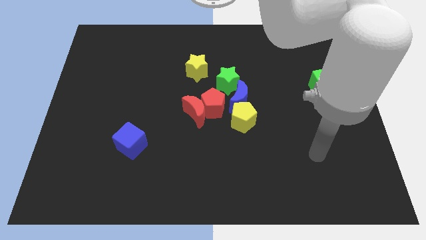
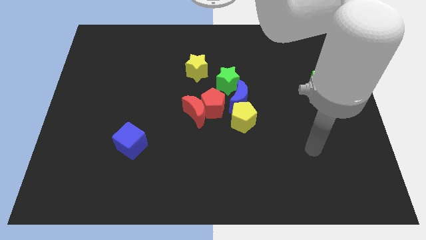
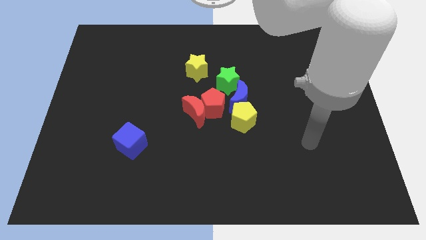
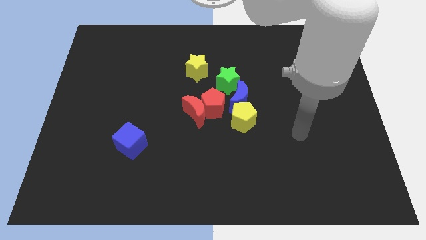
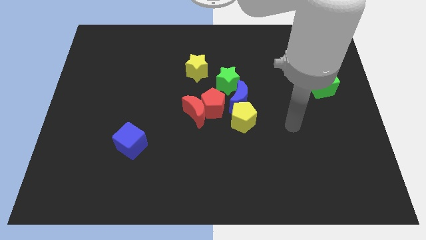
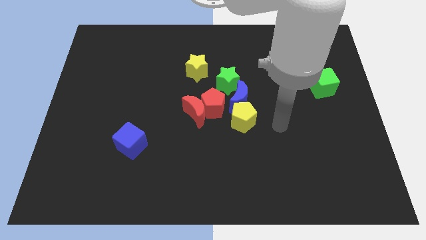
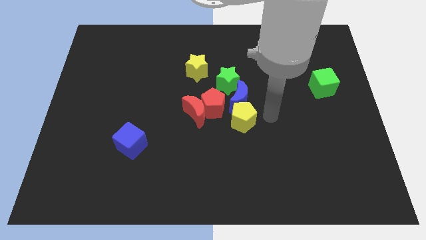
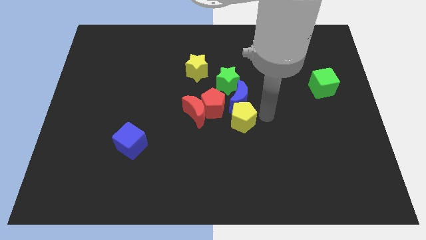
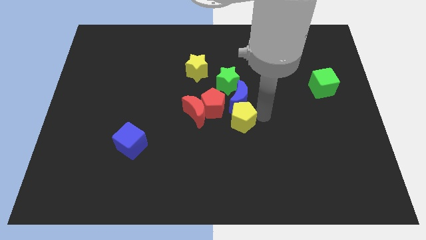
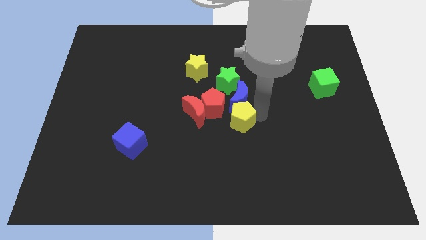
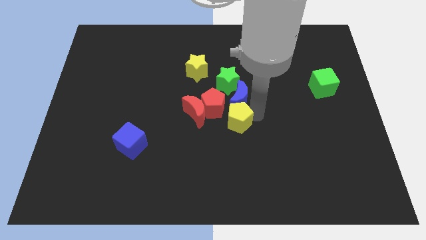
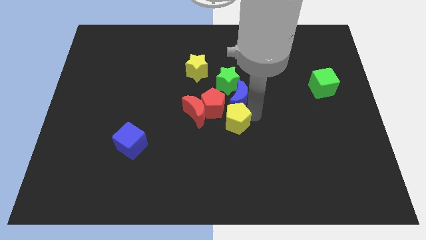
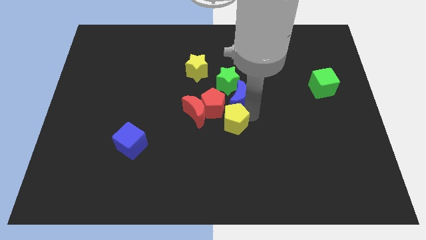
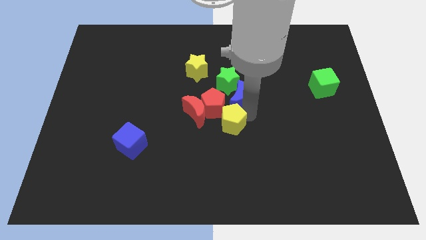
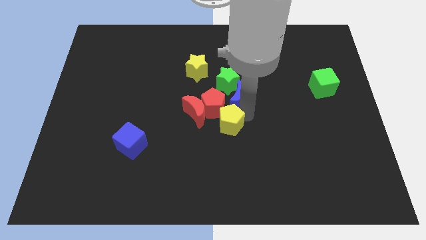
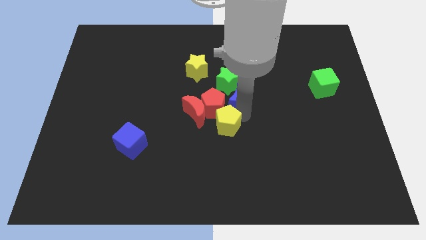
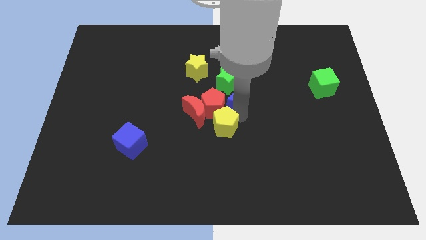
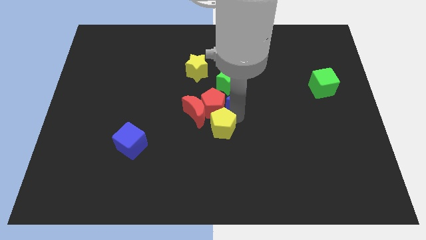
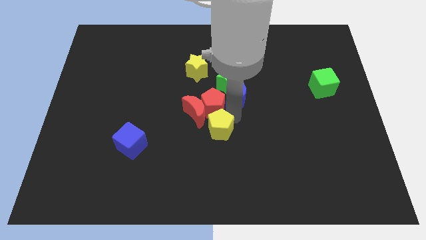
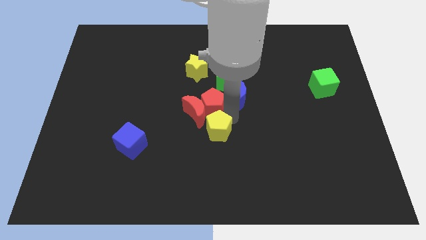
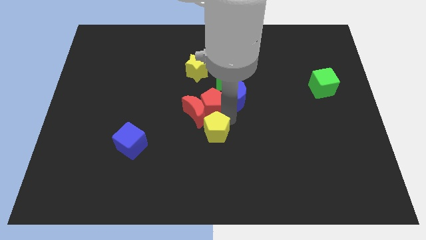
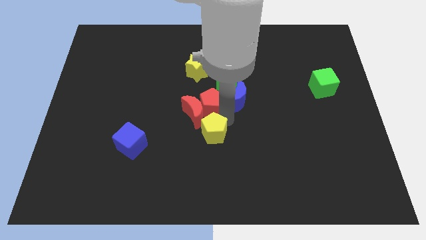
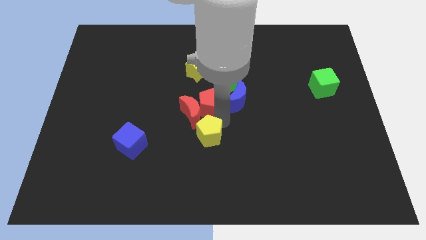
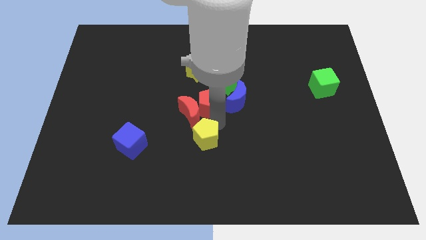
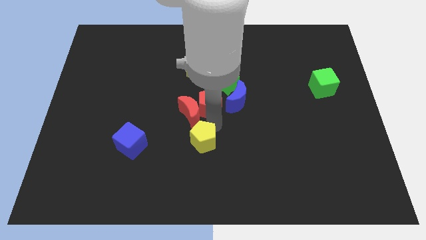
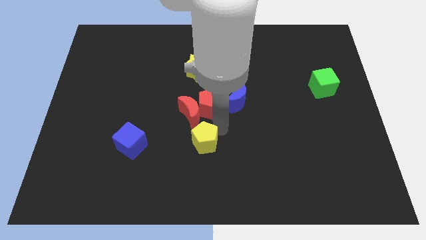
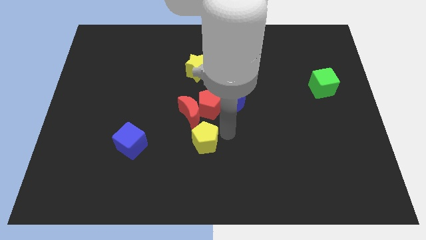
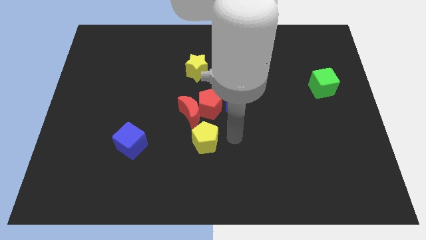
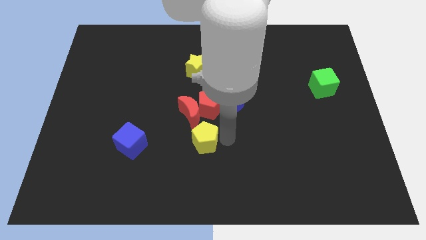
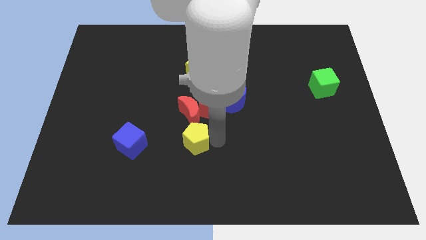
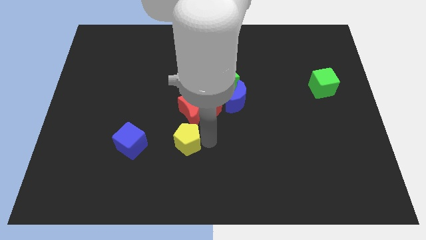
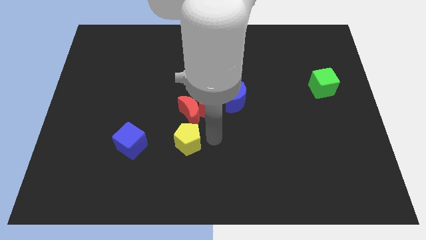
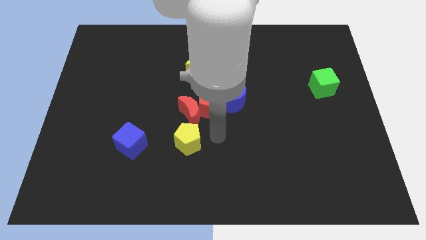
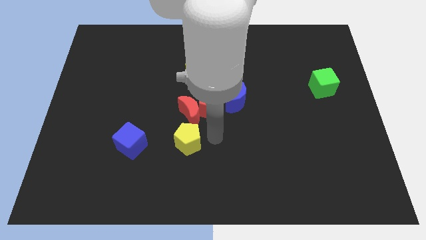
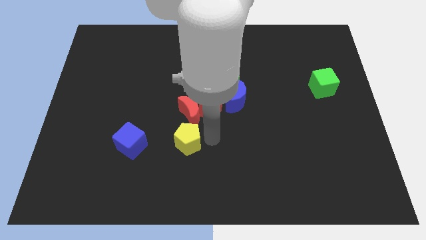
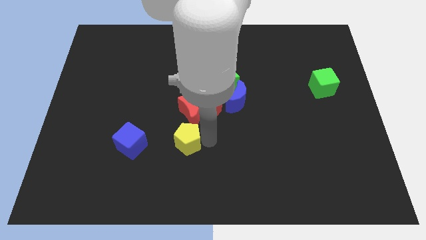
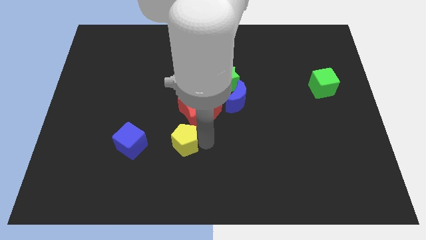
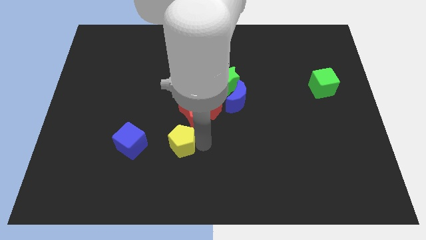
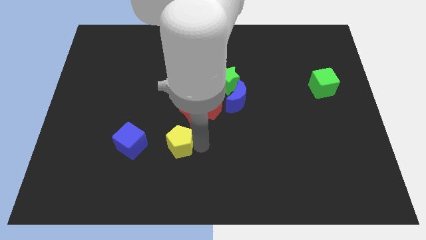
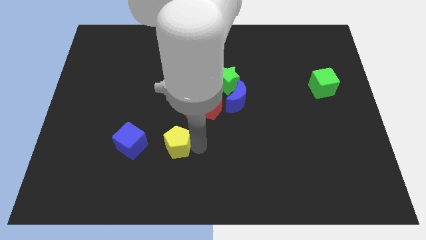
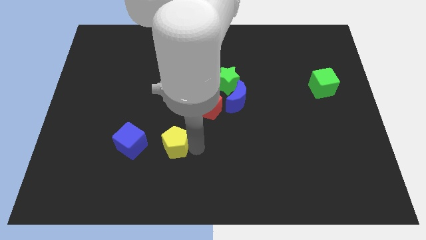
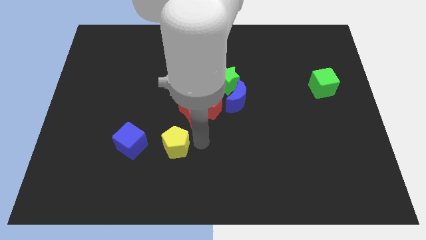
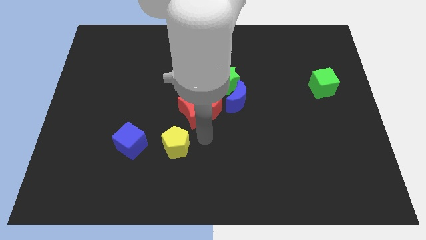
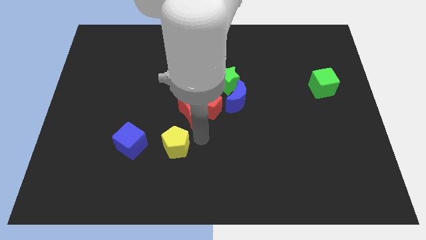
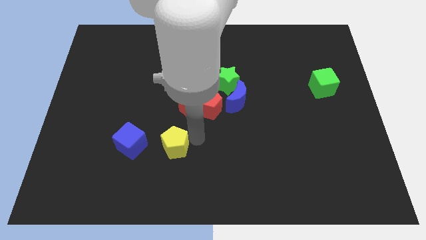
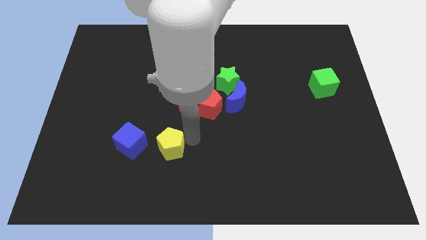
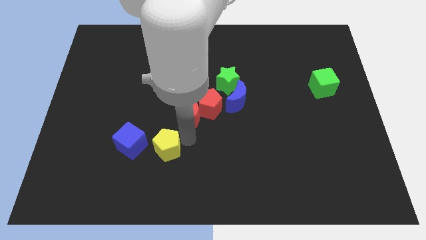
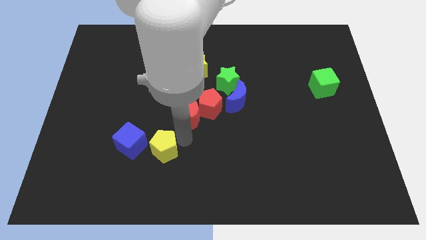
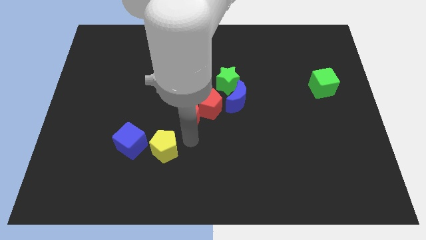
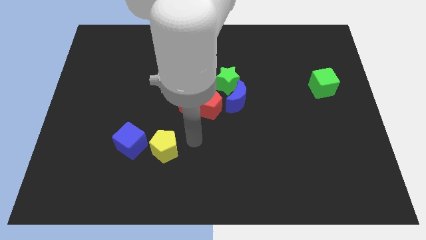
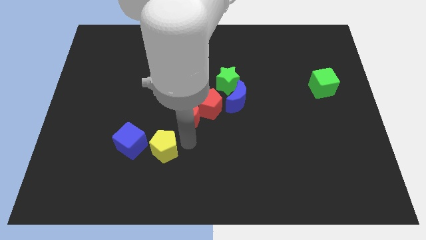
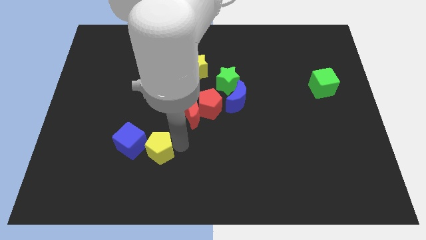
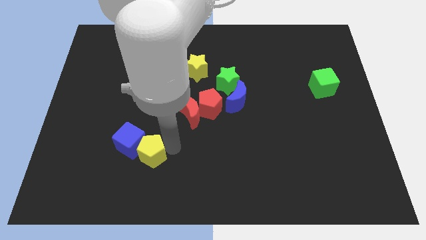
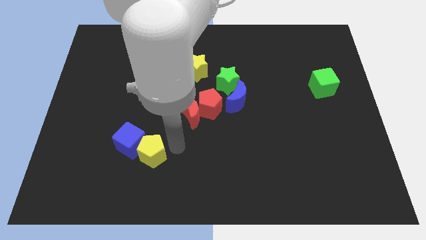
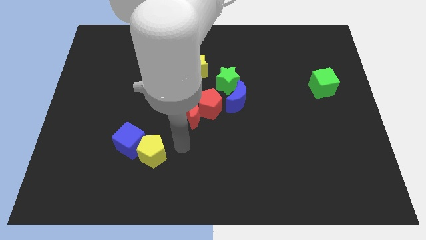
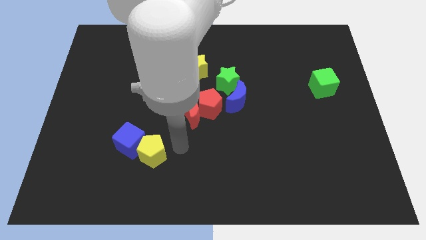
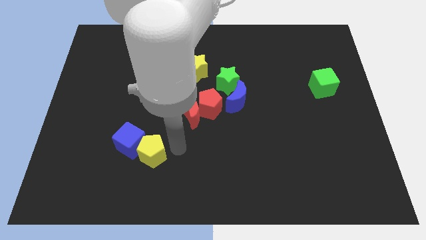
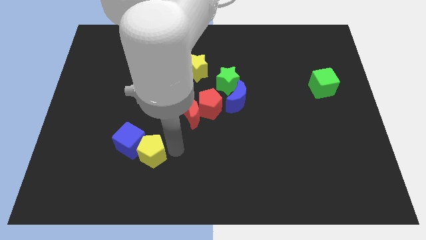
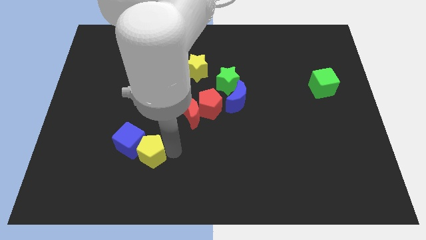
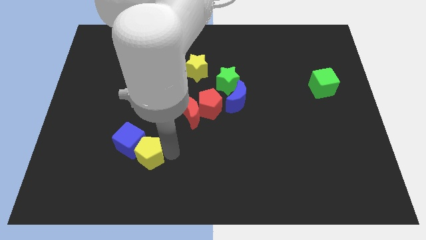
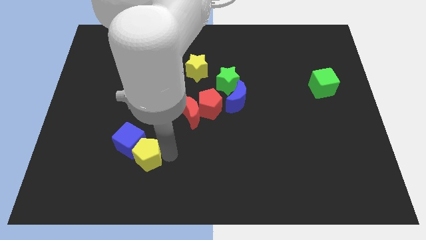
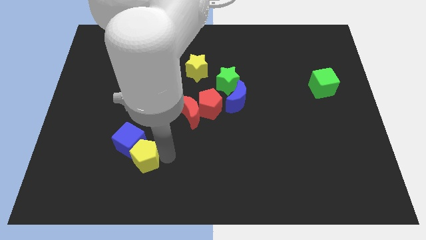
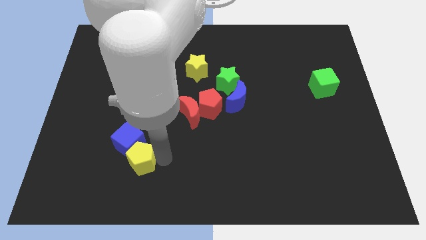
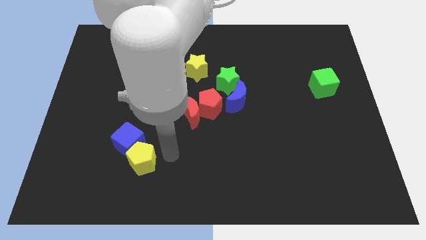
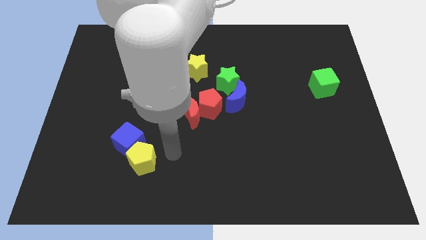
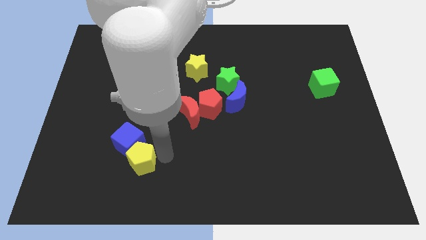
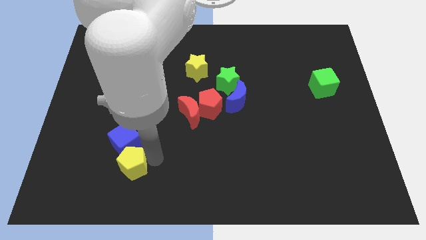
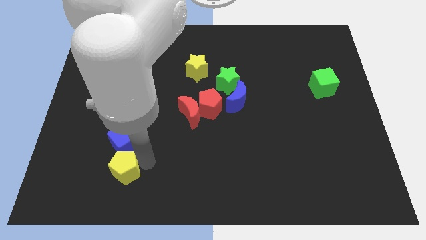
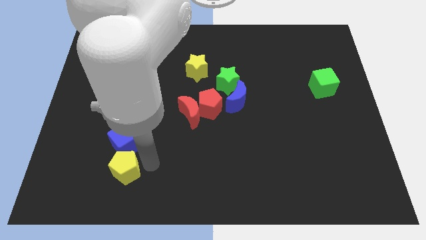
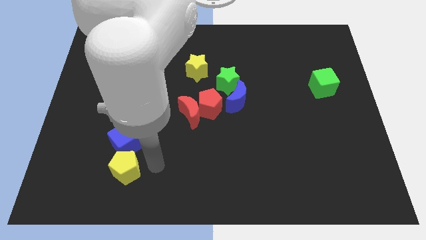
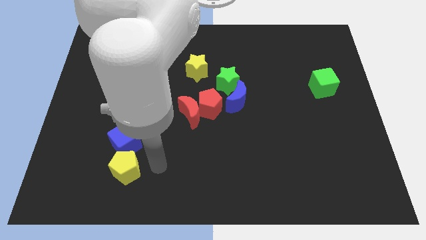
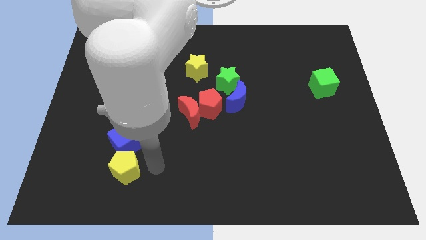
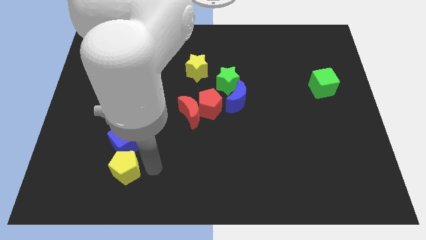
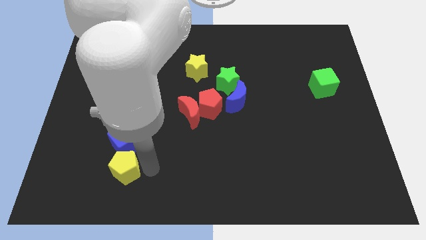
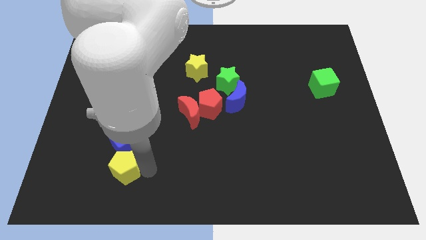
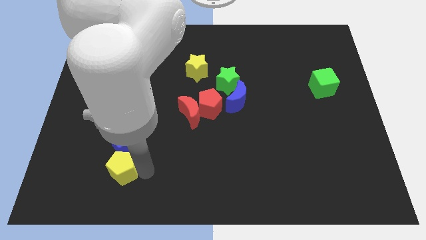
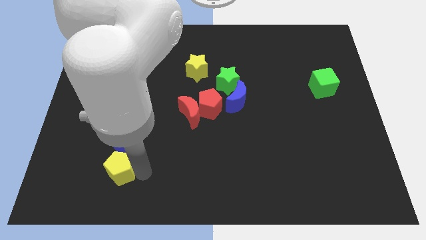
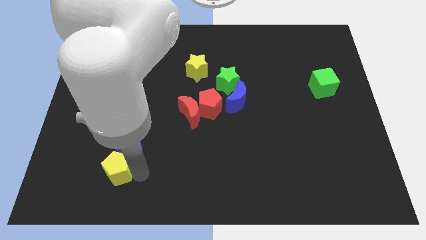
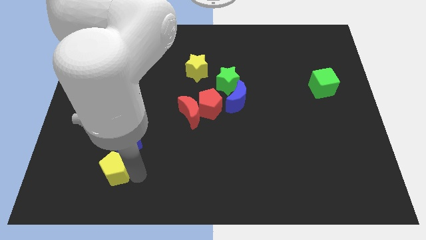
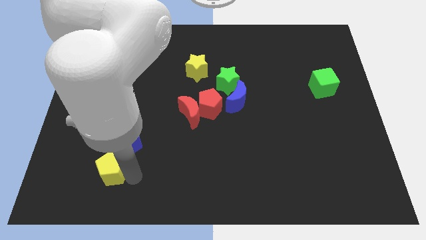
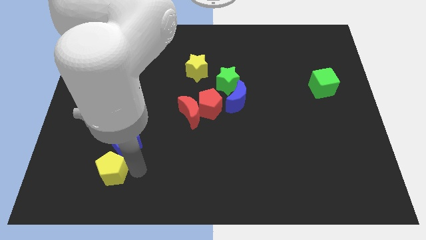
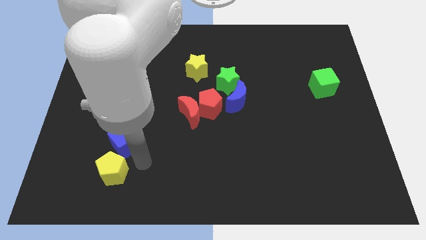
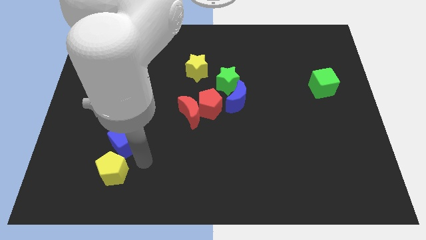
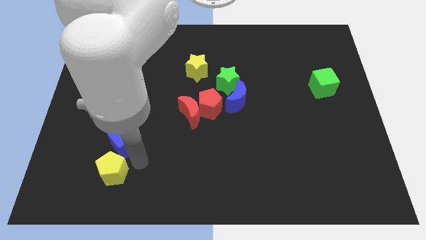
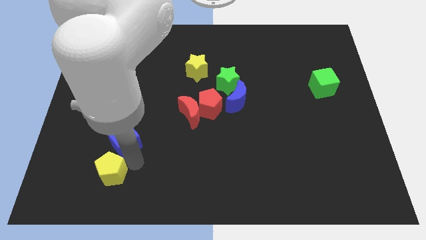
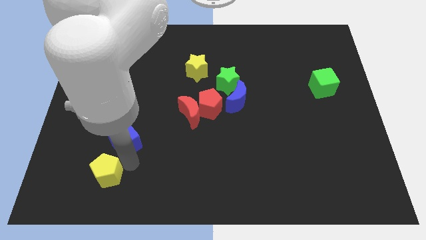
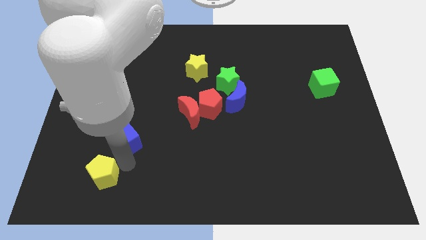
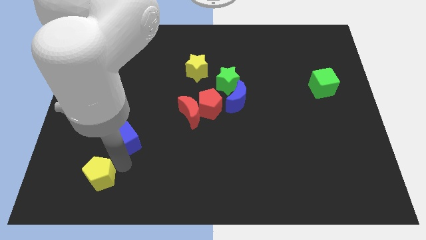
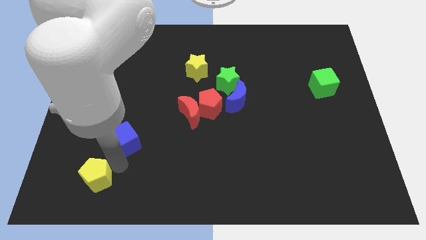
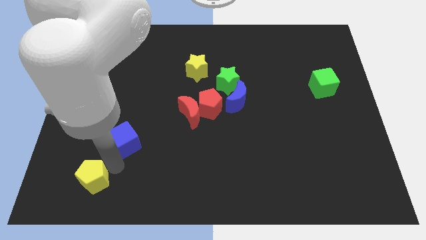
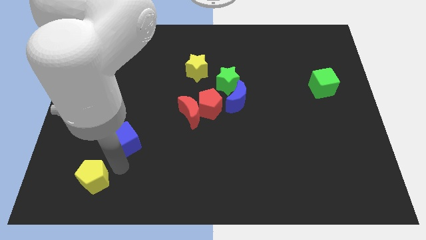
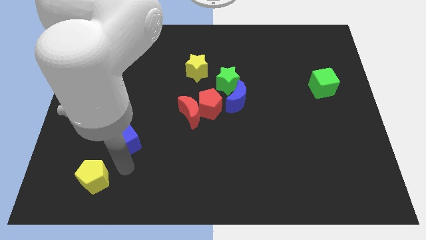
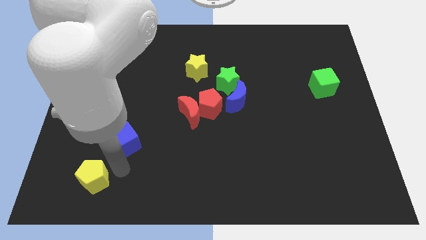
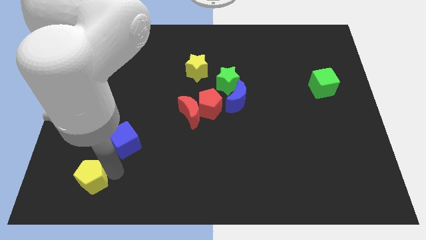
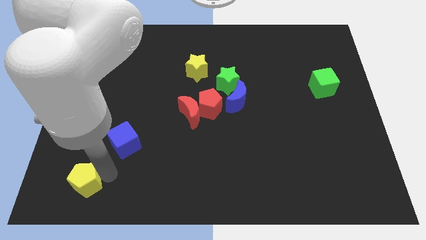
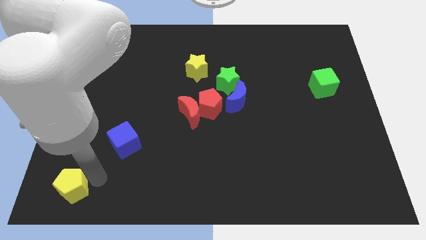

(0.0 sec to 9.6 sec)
slide the yellow pentagon to the bottom left
